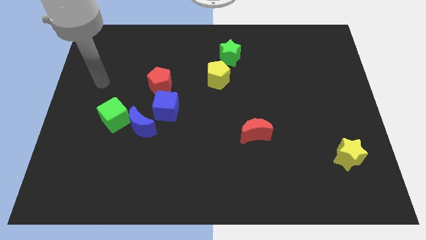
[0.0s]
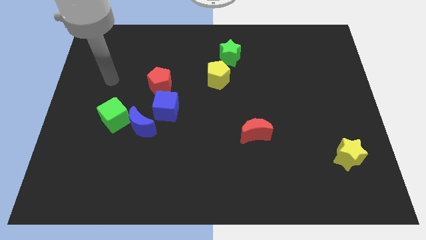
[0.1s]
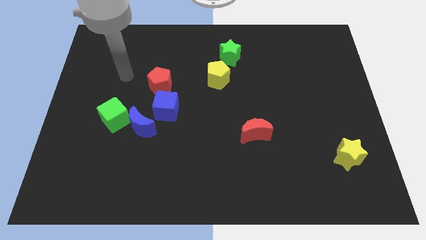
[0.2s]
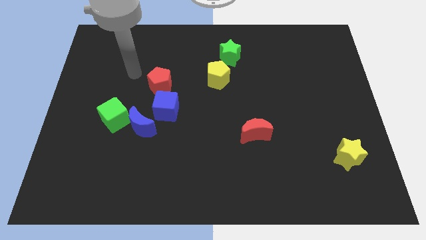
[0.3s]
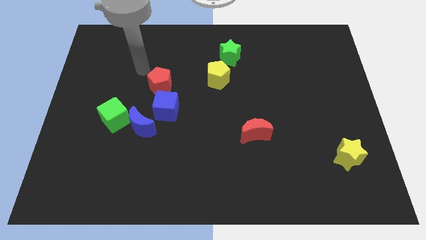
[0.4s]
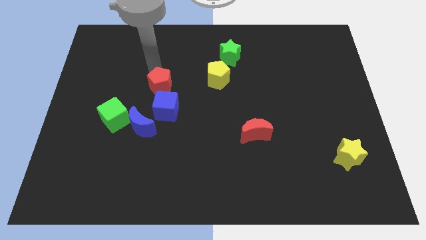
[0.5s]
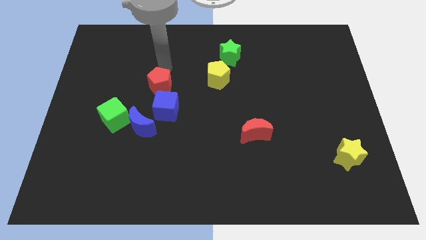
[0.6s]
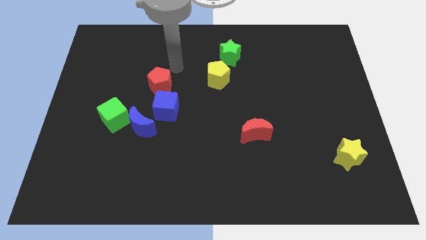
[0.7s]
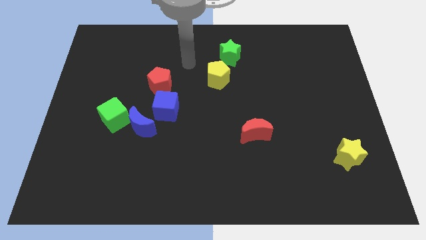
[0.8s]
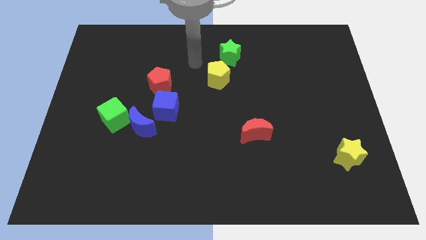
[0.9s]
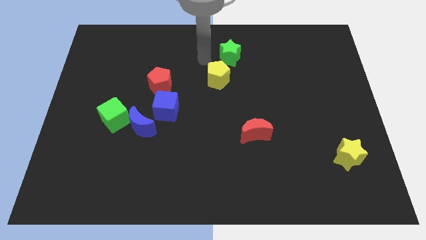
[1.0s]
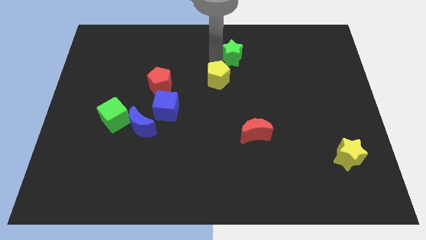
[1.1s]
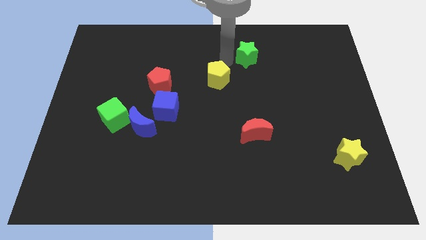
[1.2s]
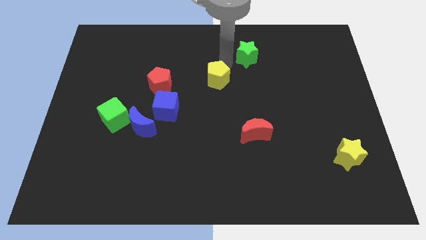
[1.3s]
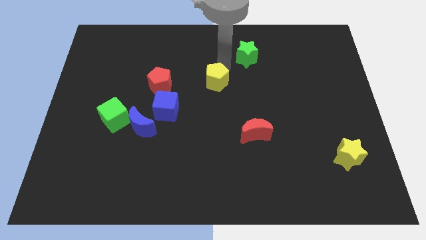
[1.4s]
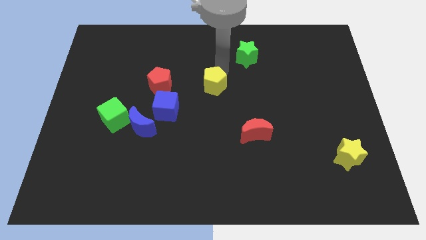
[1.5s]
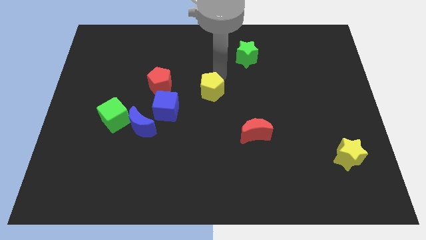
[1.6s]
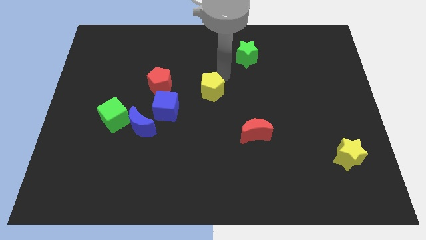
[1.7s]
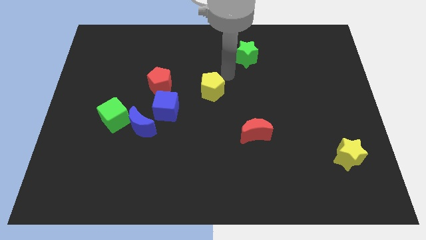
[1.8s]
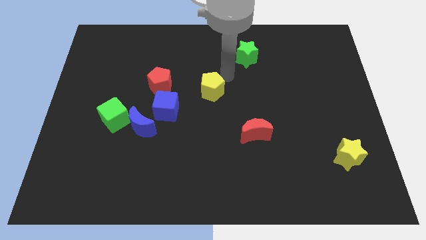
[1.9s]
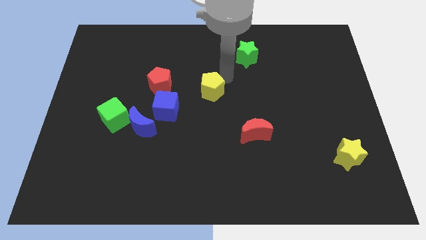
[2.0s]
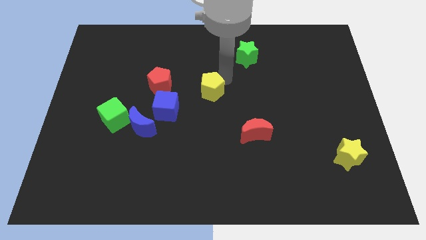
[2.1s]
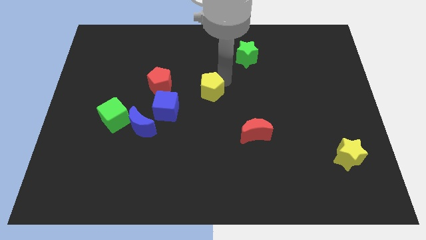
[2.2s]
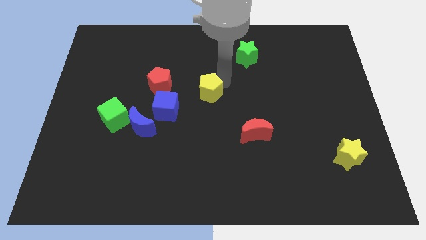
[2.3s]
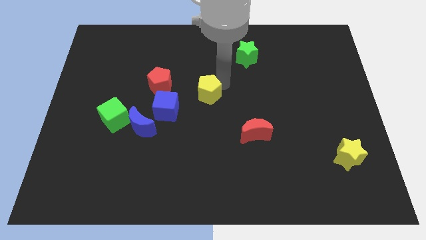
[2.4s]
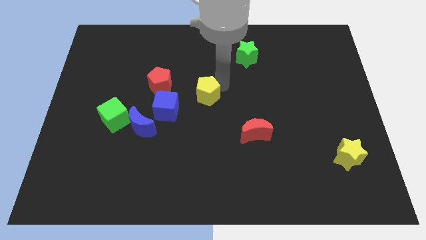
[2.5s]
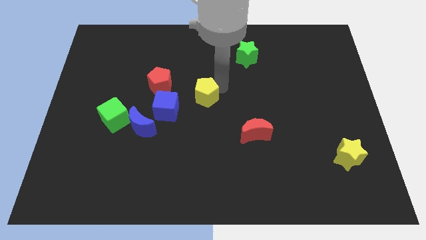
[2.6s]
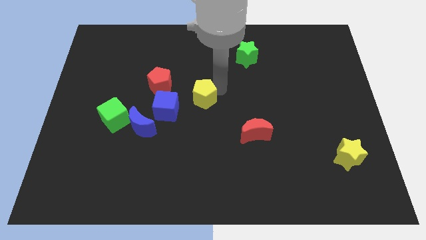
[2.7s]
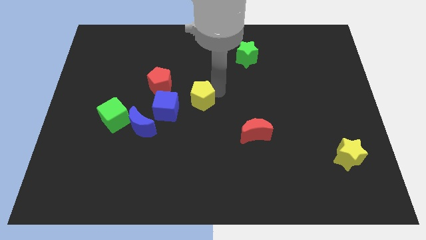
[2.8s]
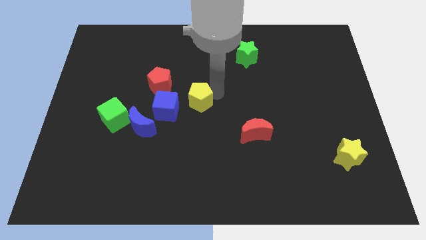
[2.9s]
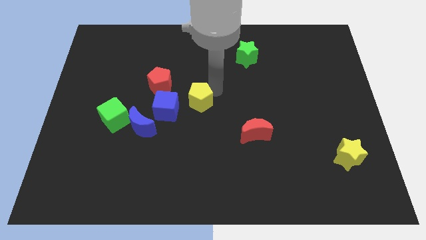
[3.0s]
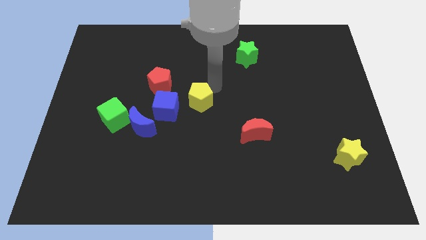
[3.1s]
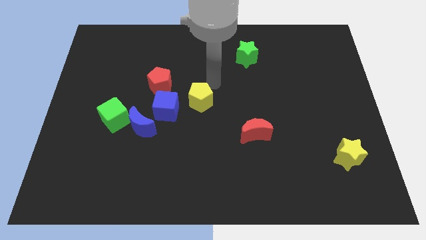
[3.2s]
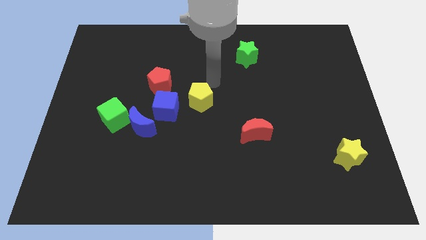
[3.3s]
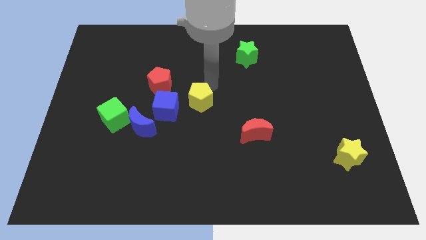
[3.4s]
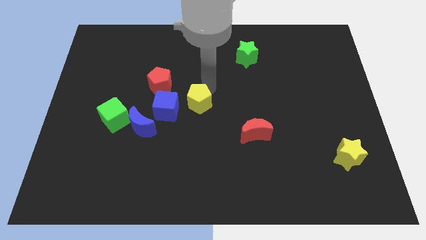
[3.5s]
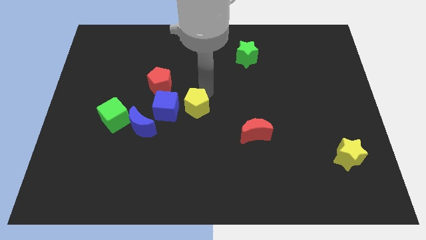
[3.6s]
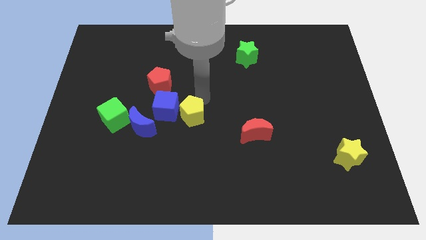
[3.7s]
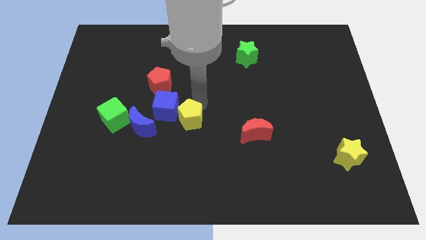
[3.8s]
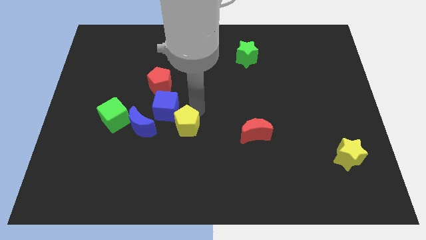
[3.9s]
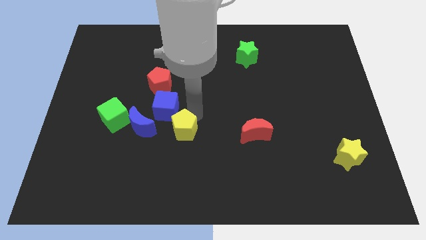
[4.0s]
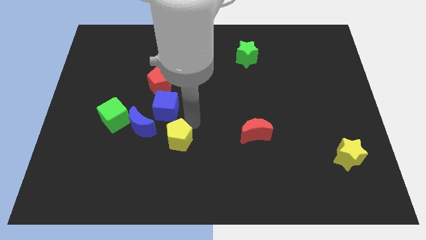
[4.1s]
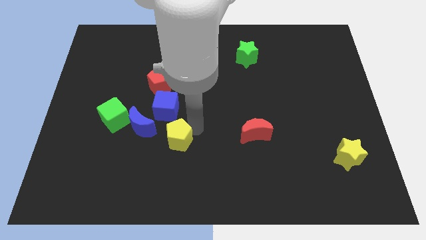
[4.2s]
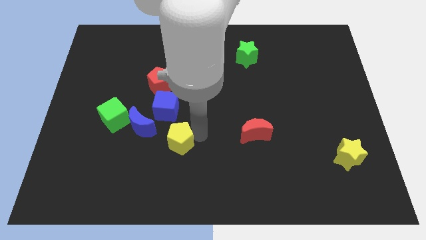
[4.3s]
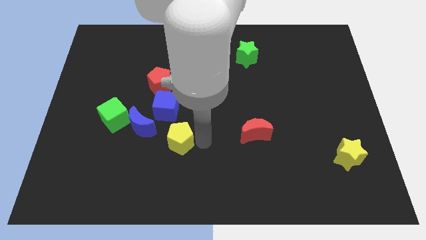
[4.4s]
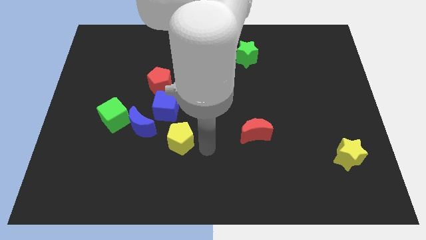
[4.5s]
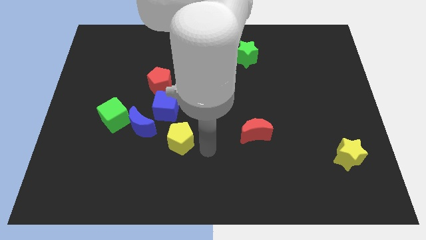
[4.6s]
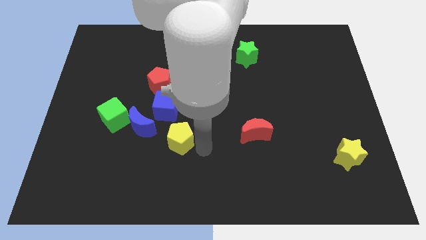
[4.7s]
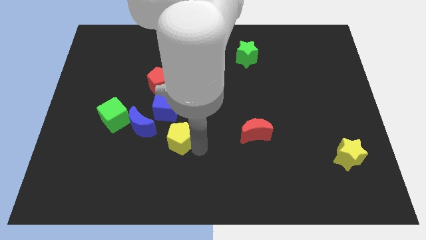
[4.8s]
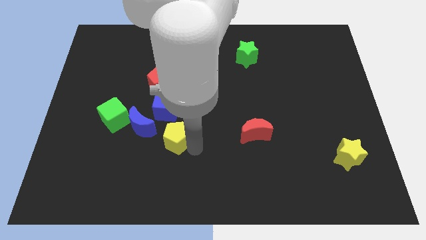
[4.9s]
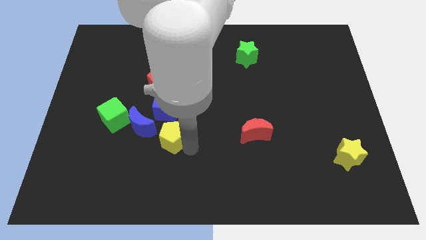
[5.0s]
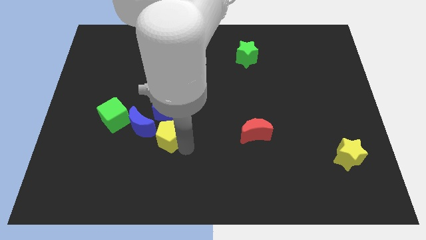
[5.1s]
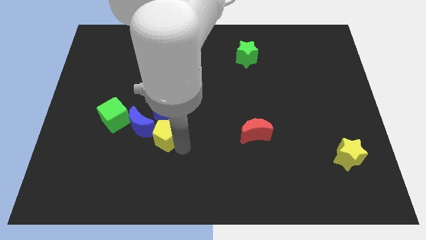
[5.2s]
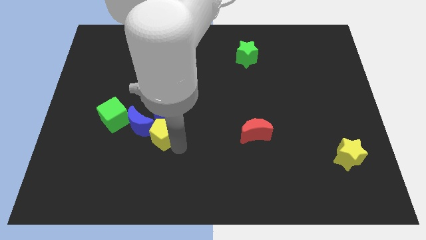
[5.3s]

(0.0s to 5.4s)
put the yellow pentagon next to the blue moon

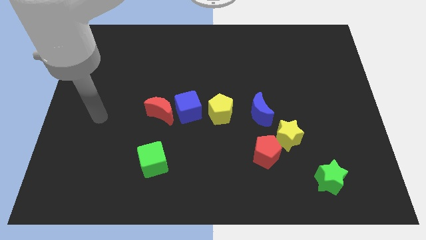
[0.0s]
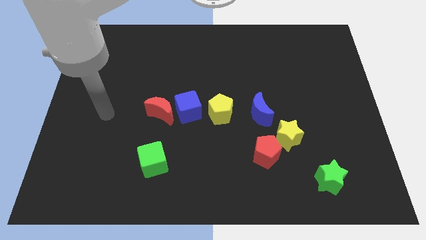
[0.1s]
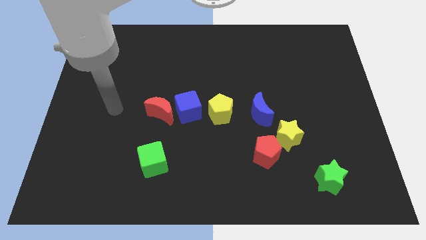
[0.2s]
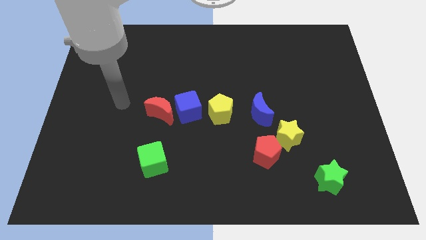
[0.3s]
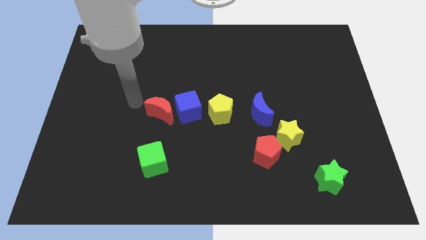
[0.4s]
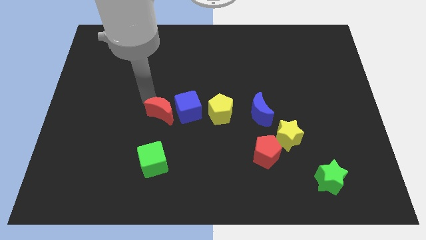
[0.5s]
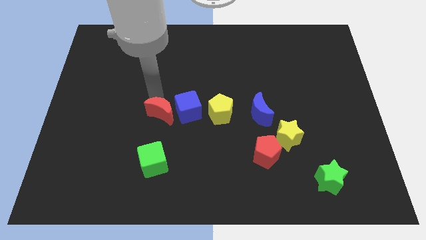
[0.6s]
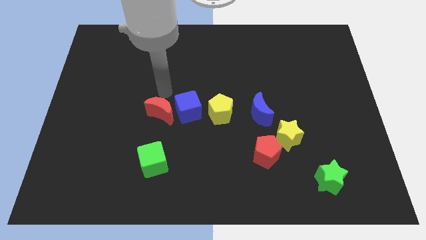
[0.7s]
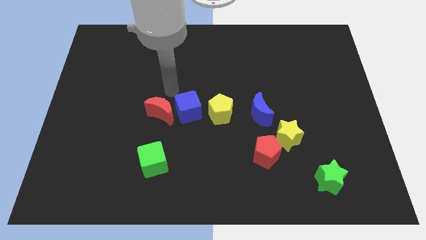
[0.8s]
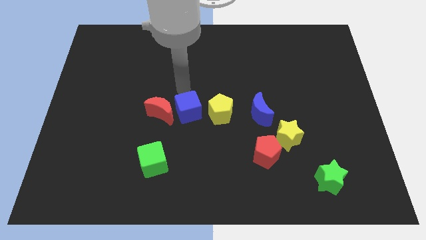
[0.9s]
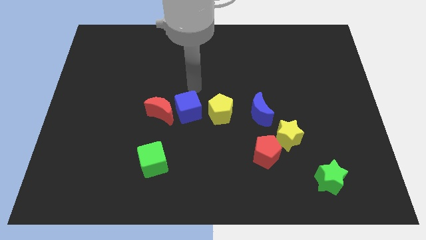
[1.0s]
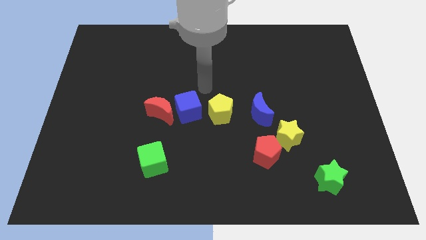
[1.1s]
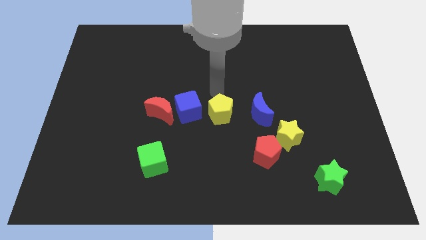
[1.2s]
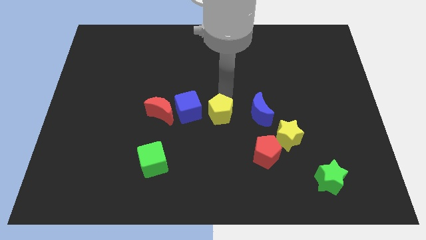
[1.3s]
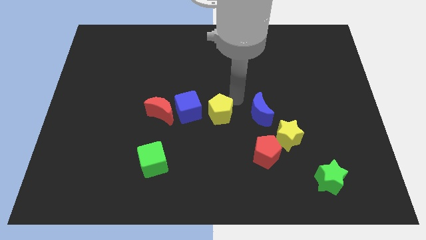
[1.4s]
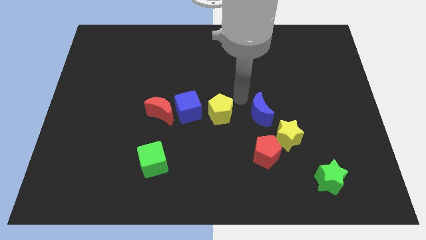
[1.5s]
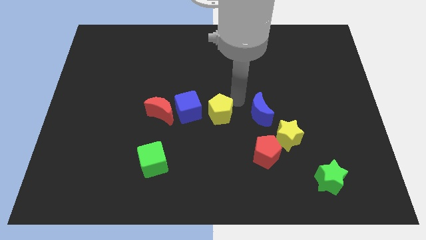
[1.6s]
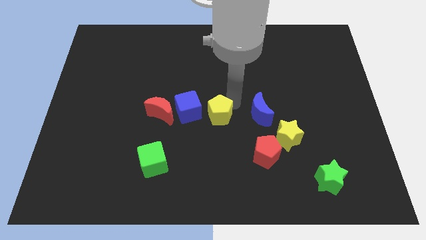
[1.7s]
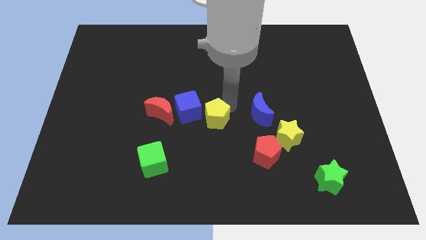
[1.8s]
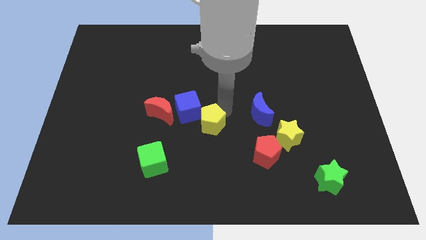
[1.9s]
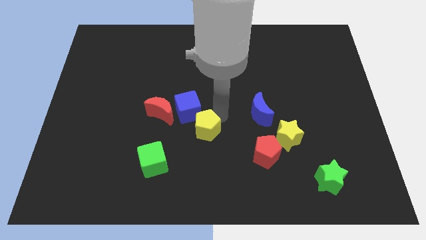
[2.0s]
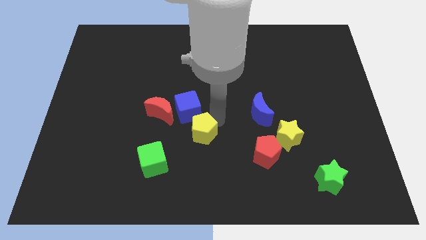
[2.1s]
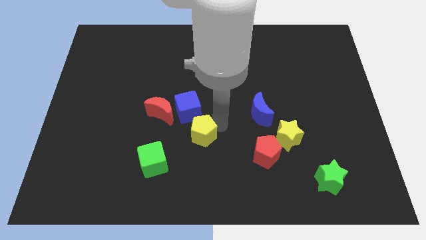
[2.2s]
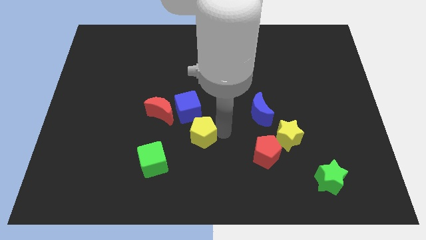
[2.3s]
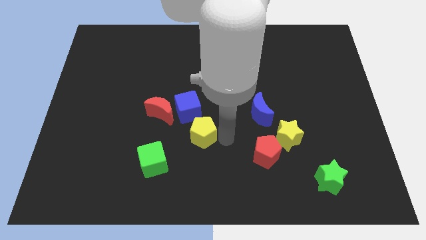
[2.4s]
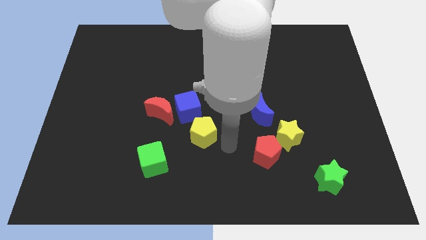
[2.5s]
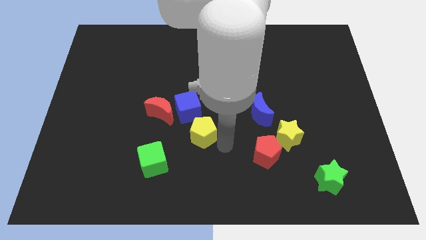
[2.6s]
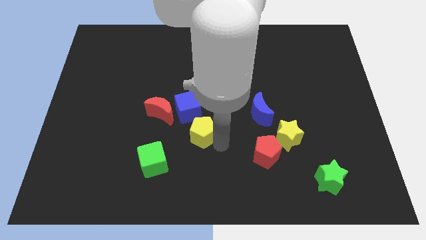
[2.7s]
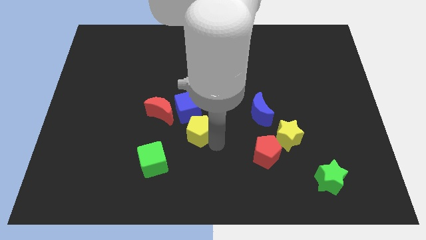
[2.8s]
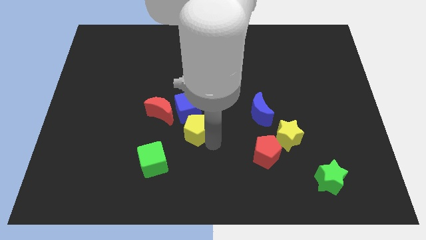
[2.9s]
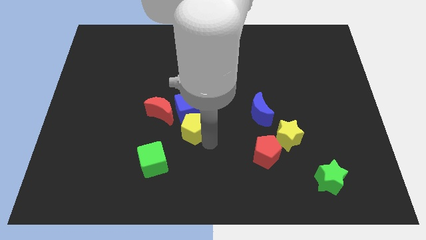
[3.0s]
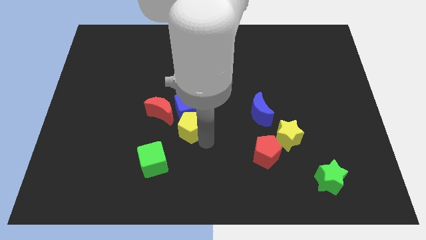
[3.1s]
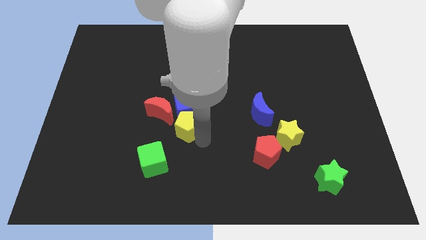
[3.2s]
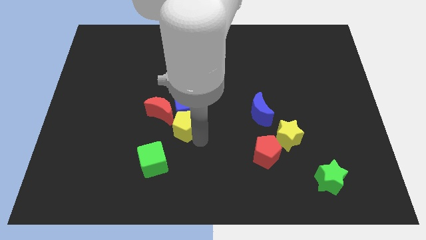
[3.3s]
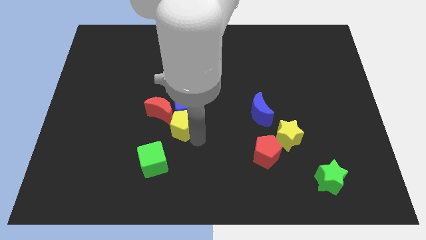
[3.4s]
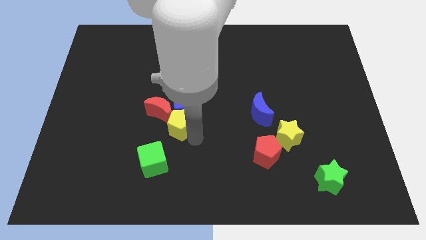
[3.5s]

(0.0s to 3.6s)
move the yellow pentagon close to the red moon
